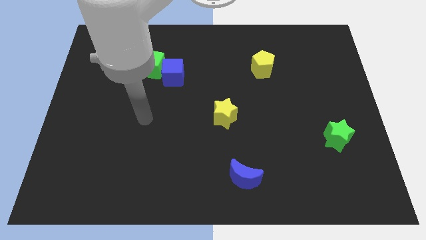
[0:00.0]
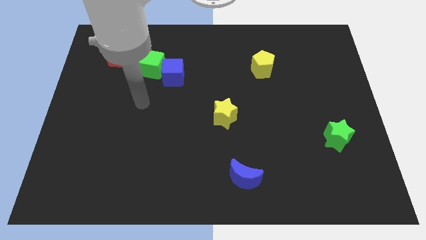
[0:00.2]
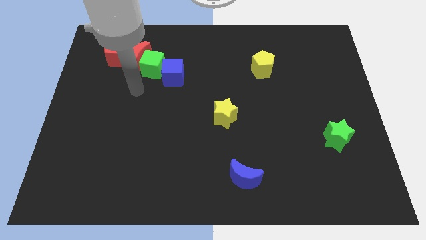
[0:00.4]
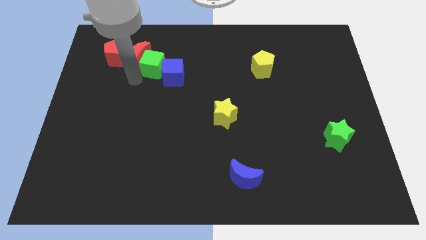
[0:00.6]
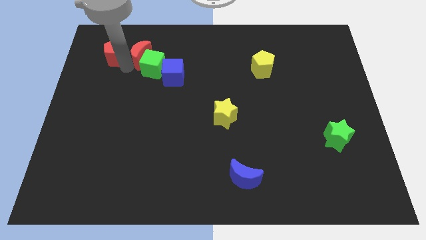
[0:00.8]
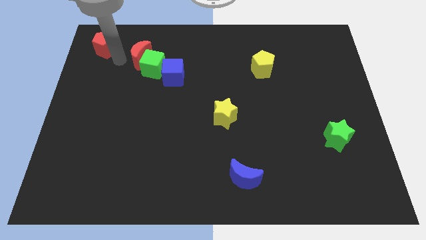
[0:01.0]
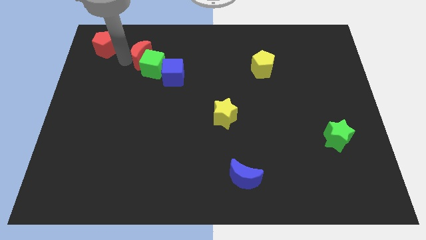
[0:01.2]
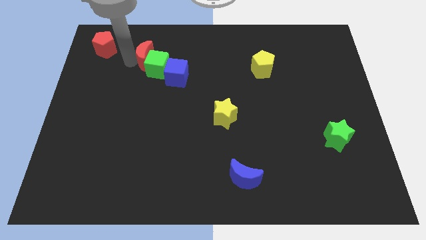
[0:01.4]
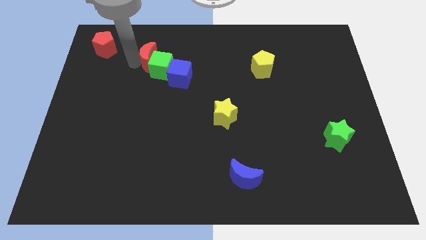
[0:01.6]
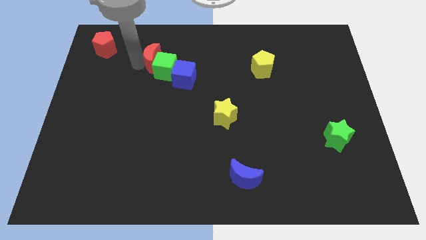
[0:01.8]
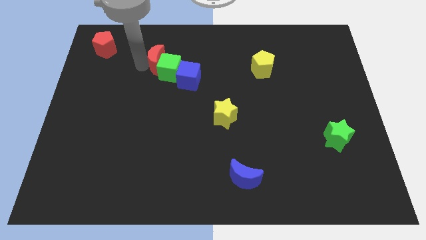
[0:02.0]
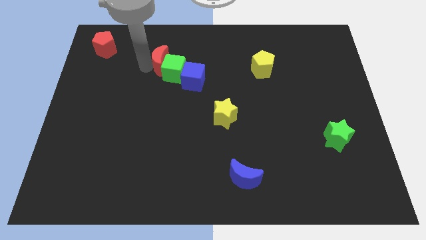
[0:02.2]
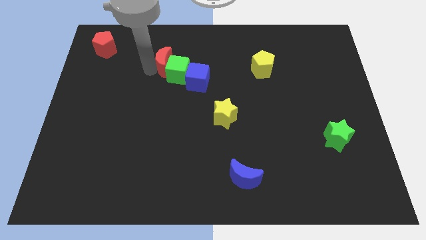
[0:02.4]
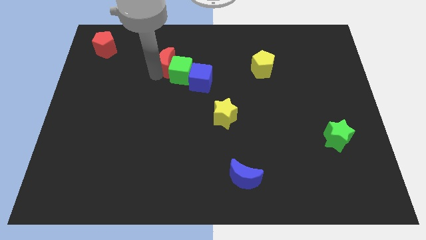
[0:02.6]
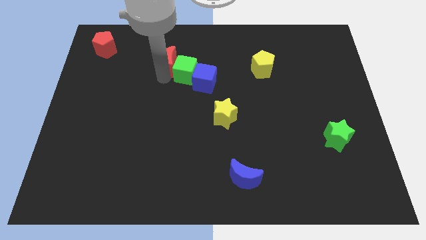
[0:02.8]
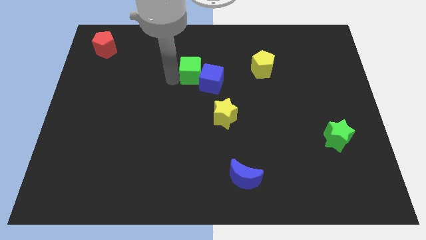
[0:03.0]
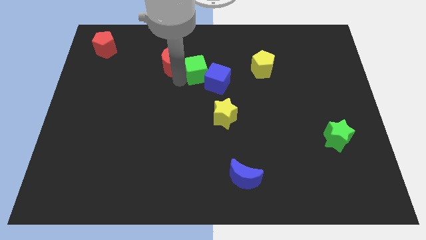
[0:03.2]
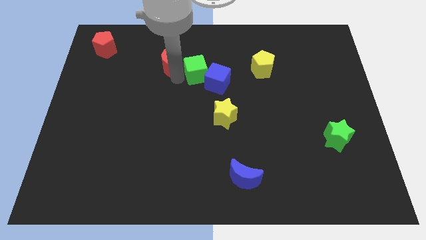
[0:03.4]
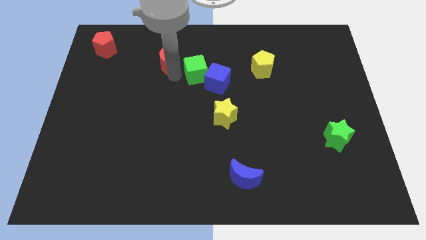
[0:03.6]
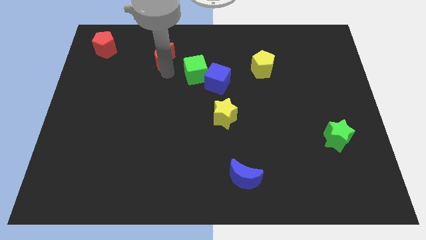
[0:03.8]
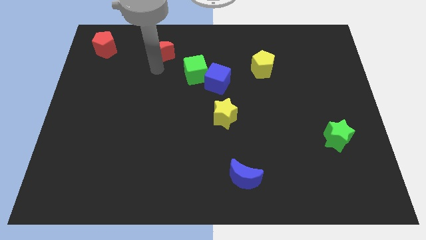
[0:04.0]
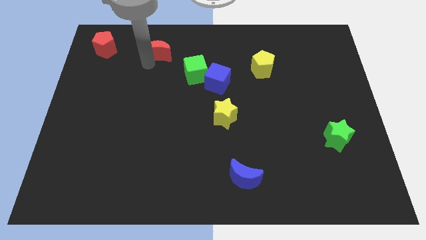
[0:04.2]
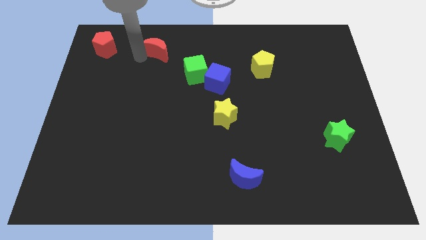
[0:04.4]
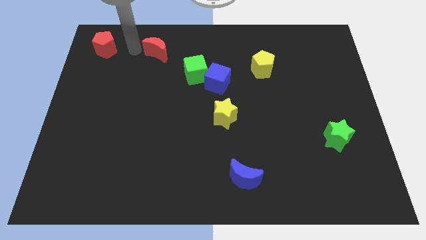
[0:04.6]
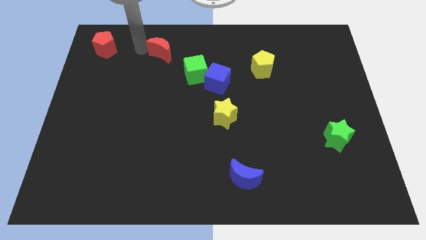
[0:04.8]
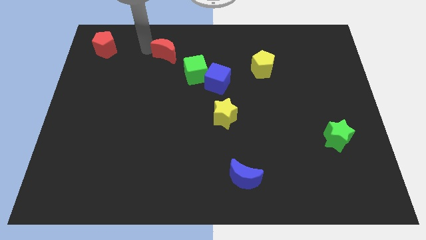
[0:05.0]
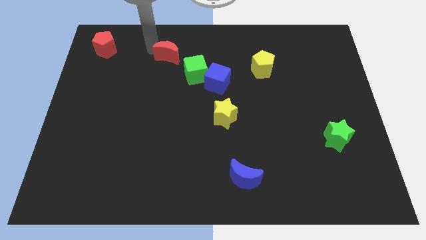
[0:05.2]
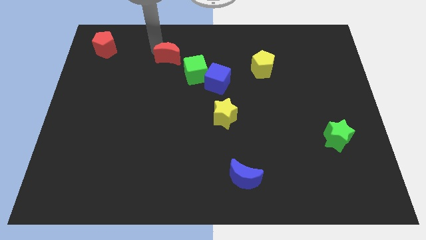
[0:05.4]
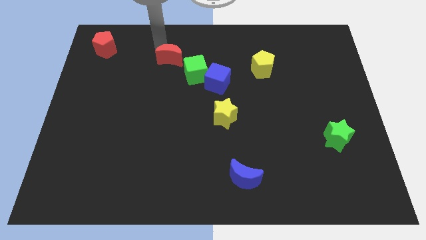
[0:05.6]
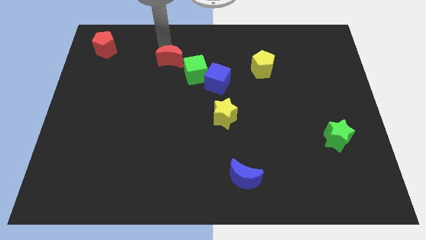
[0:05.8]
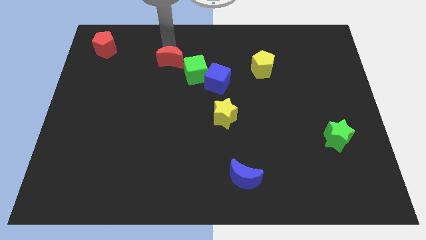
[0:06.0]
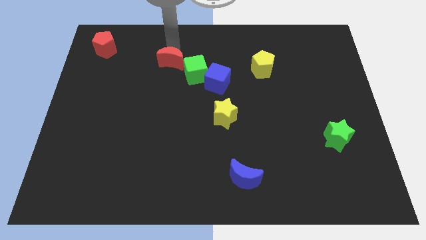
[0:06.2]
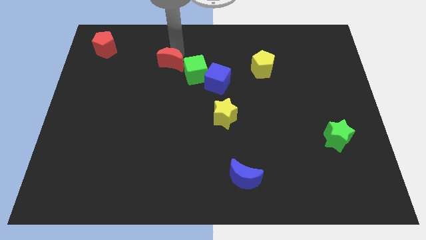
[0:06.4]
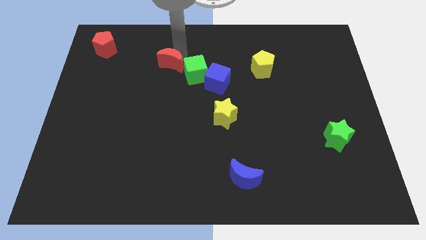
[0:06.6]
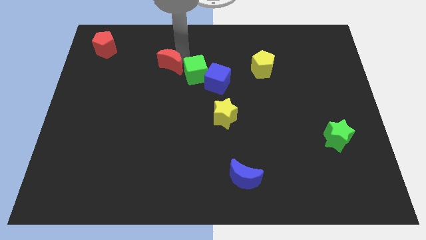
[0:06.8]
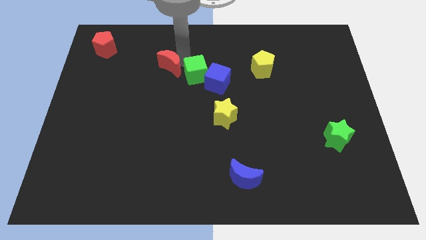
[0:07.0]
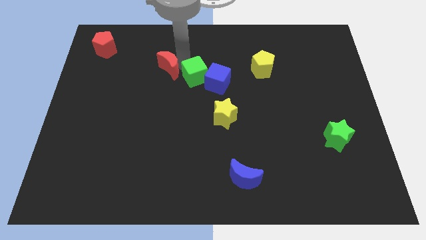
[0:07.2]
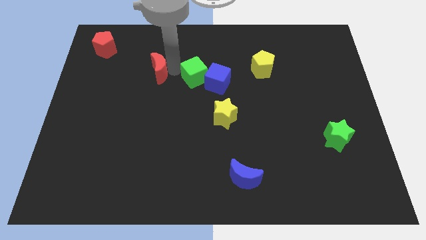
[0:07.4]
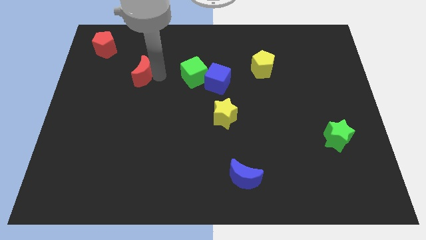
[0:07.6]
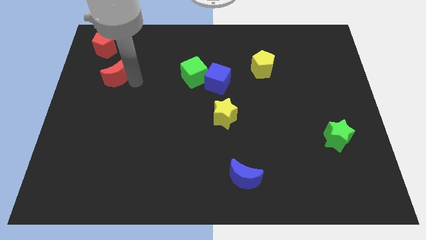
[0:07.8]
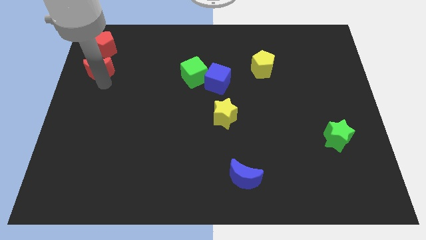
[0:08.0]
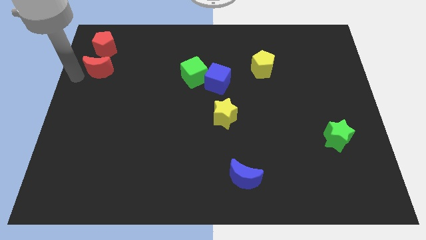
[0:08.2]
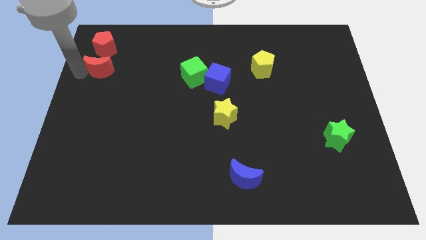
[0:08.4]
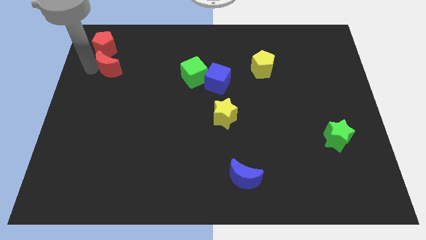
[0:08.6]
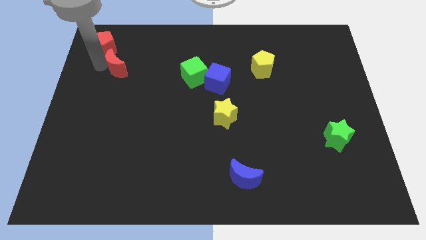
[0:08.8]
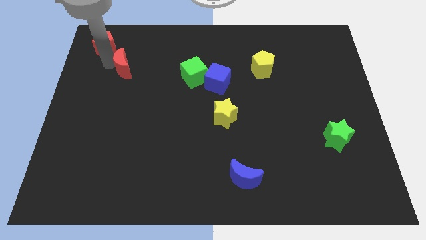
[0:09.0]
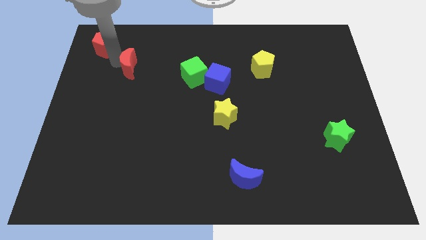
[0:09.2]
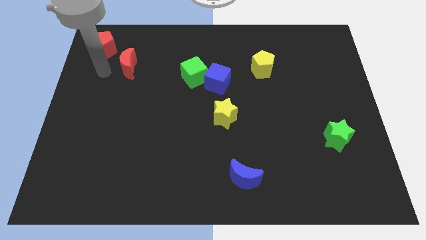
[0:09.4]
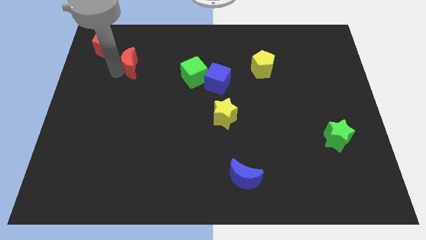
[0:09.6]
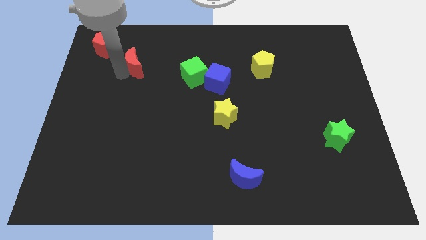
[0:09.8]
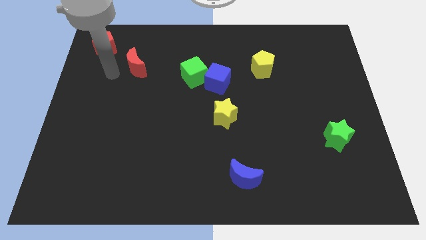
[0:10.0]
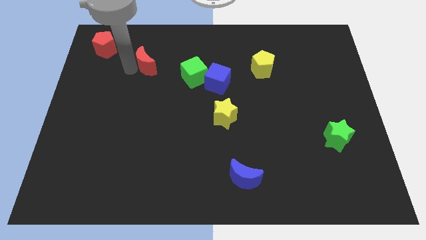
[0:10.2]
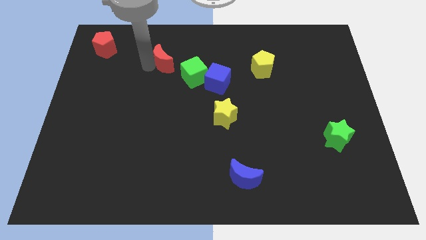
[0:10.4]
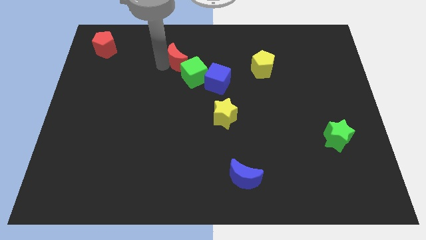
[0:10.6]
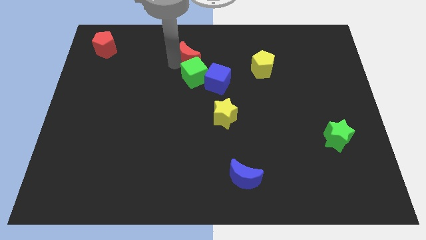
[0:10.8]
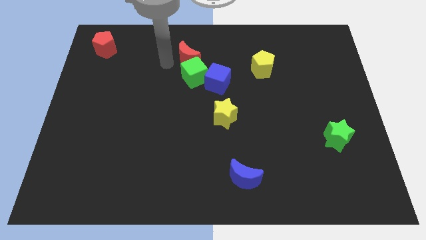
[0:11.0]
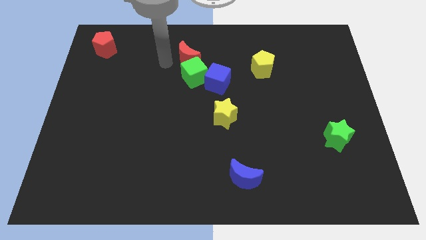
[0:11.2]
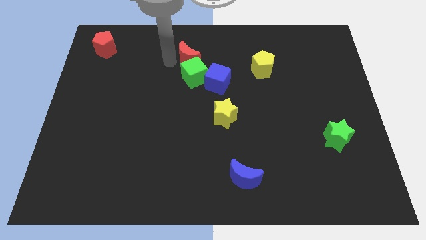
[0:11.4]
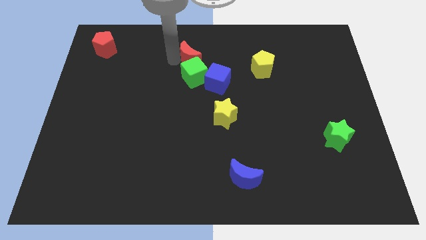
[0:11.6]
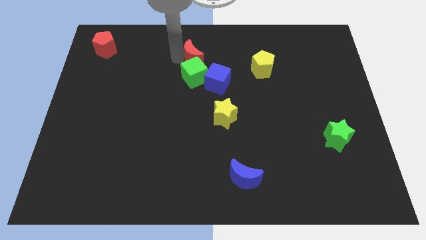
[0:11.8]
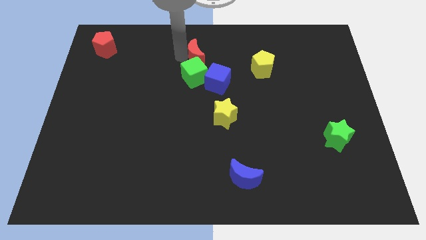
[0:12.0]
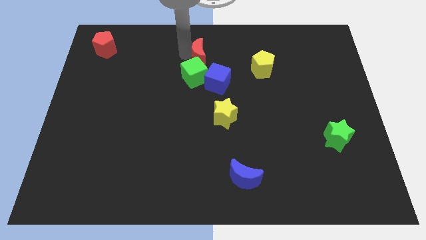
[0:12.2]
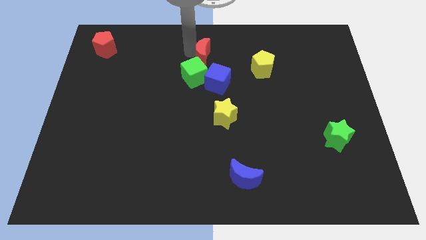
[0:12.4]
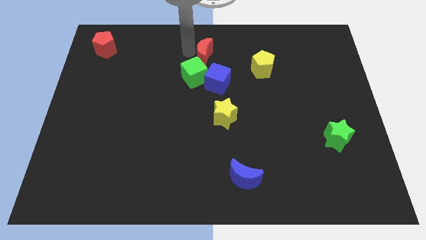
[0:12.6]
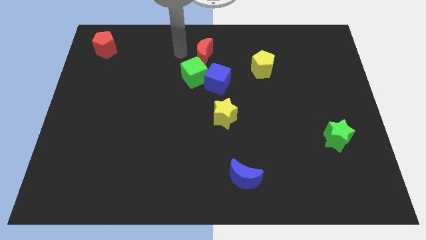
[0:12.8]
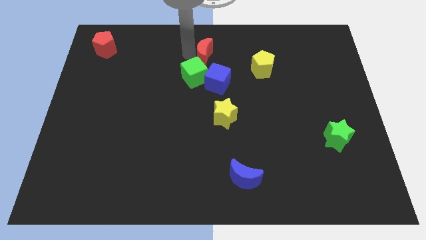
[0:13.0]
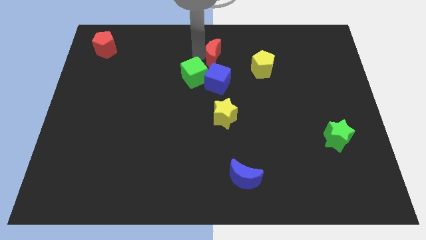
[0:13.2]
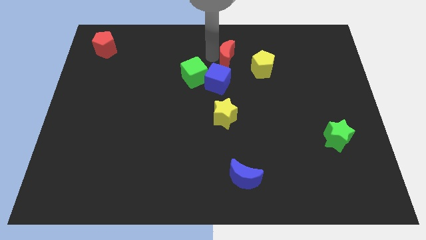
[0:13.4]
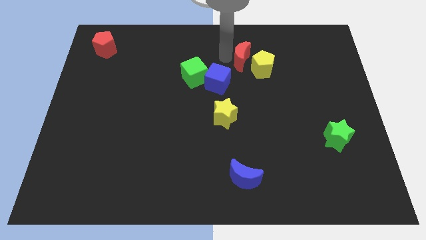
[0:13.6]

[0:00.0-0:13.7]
push the red moon to the yellow pentagon
